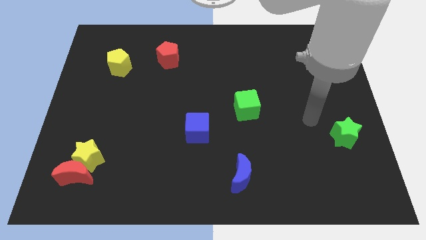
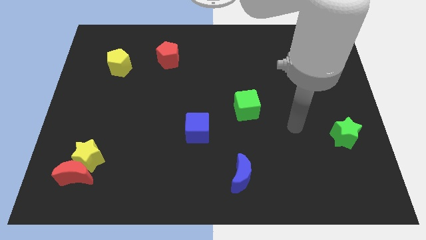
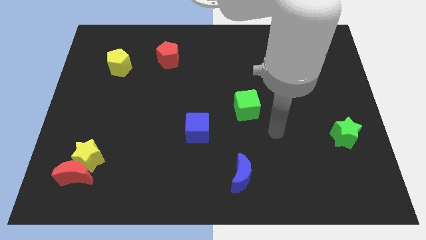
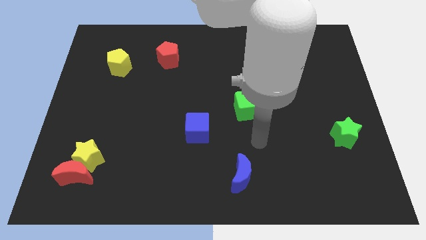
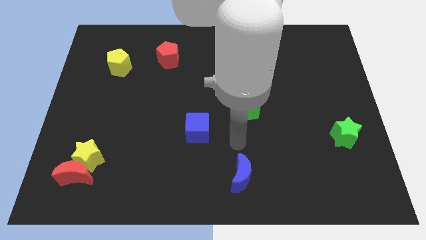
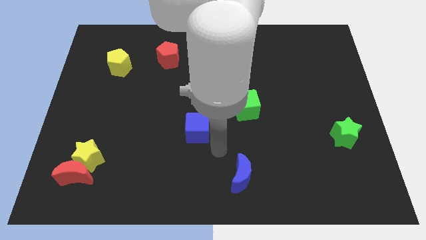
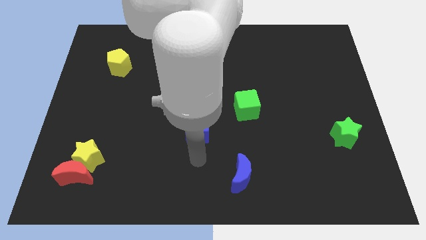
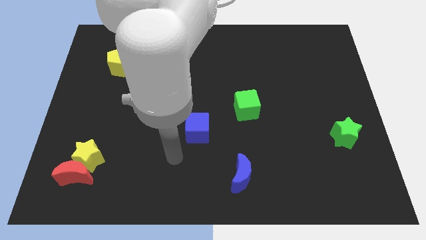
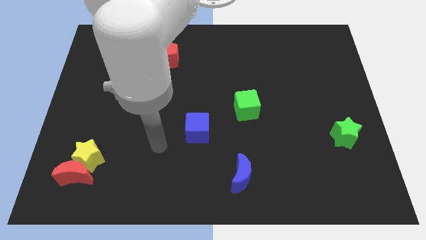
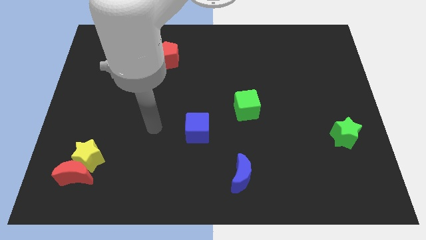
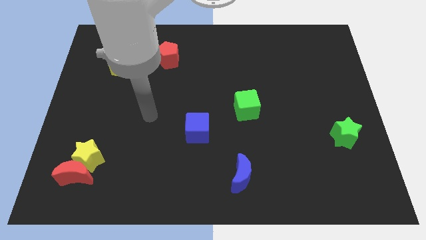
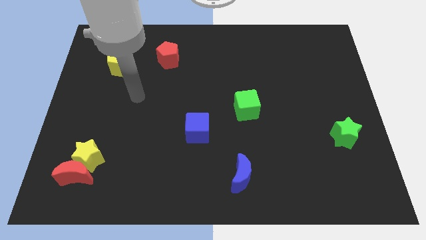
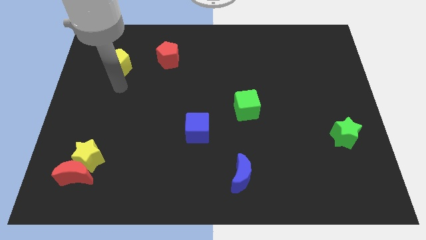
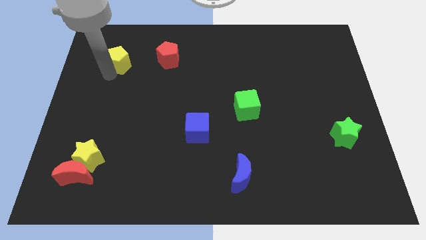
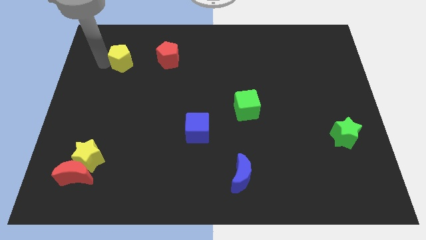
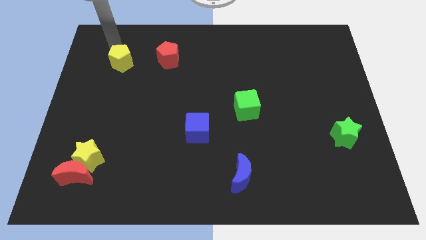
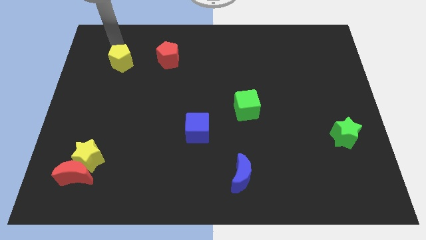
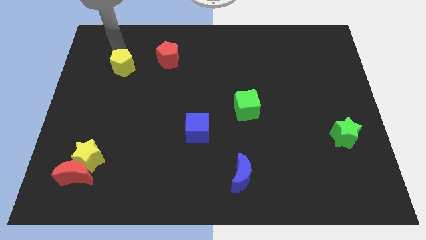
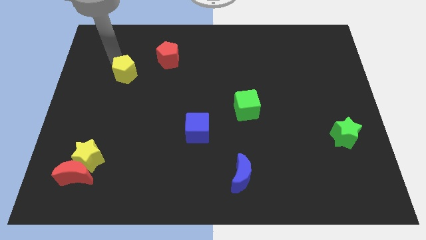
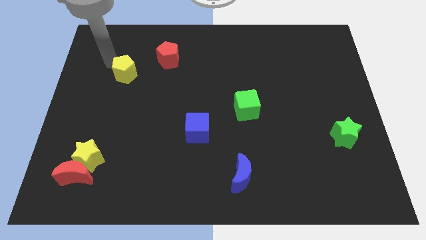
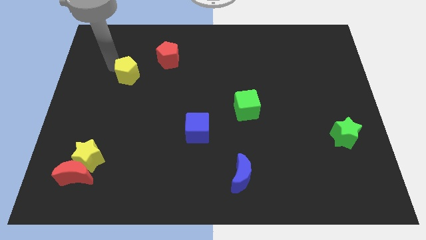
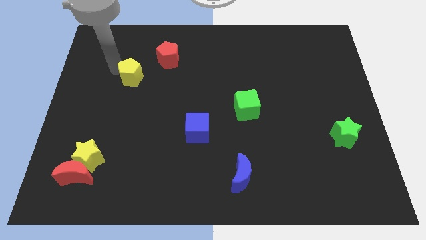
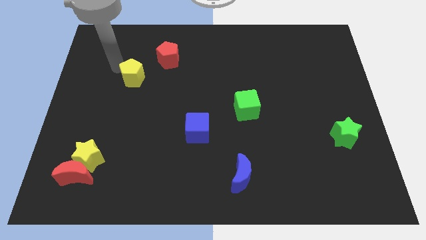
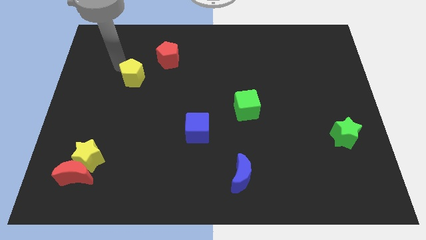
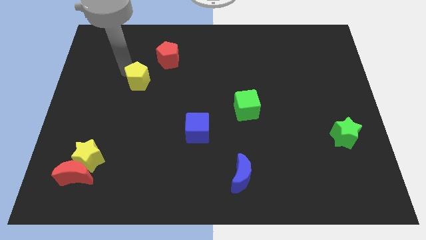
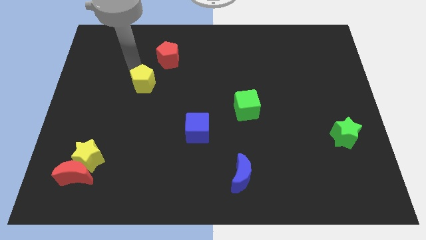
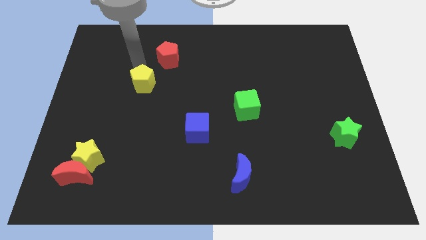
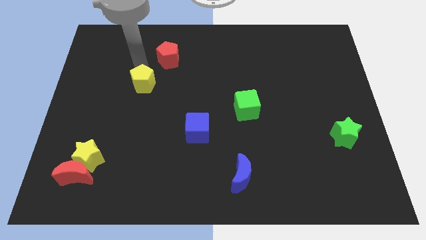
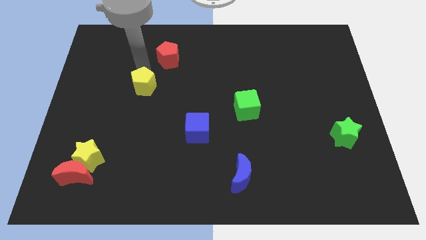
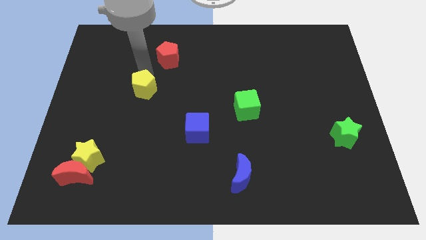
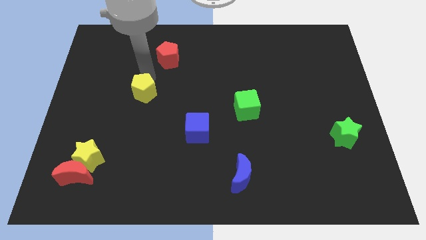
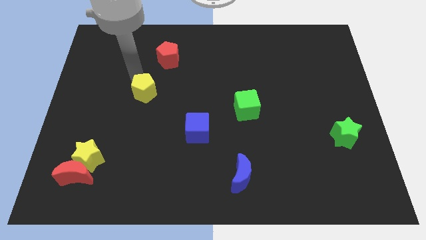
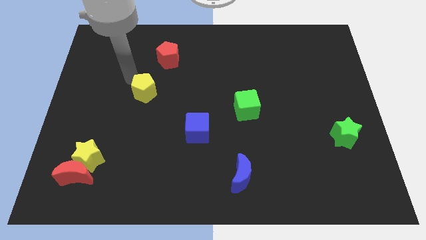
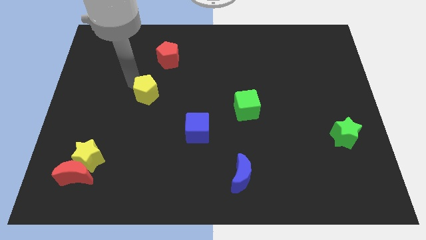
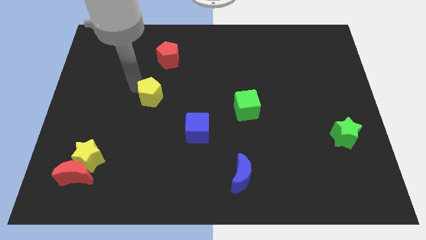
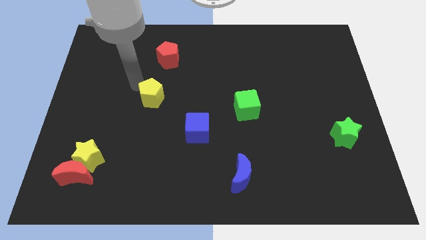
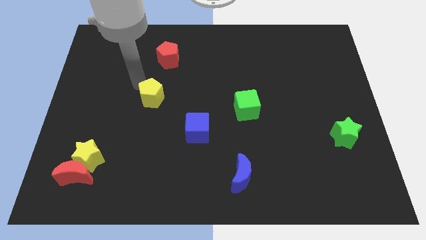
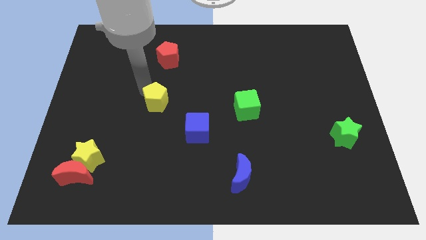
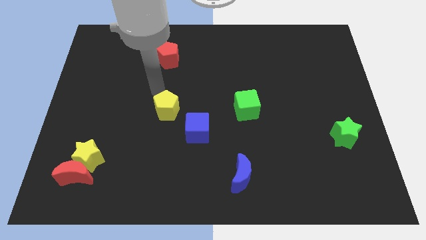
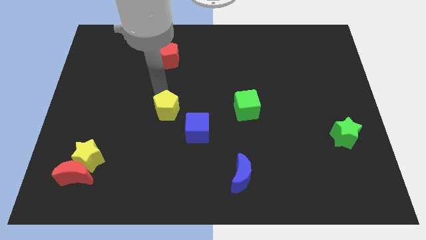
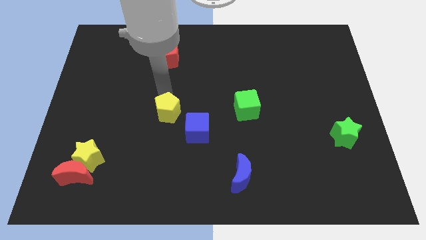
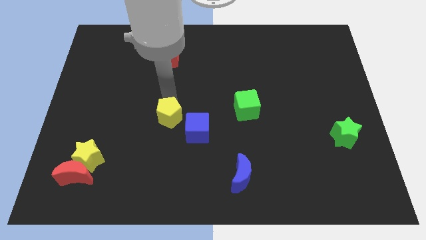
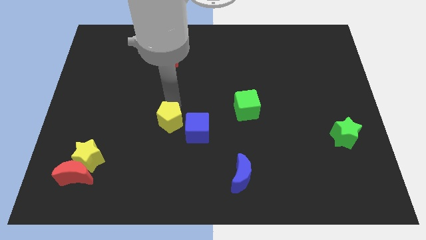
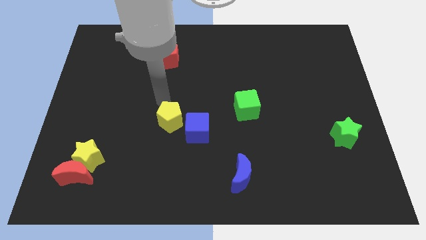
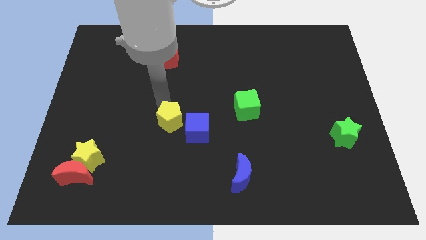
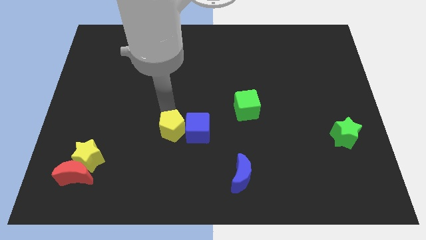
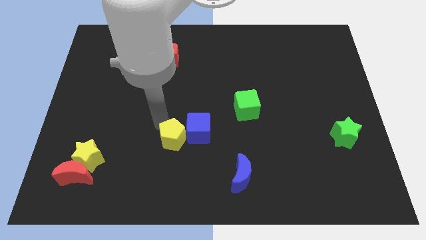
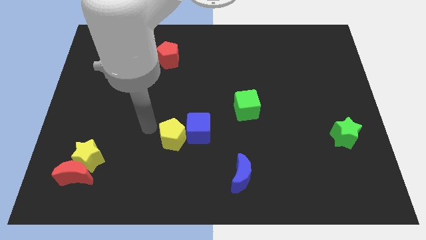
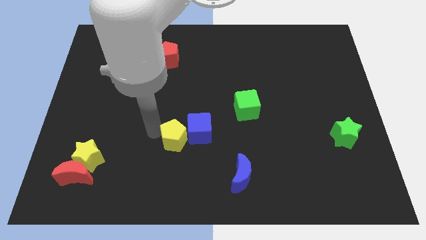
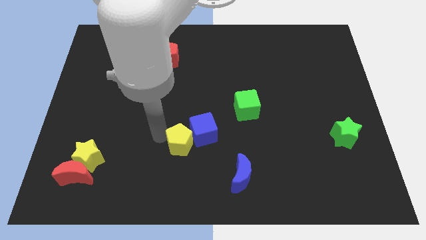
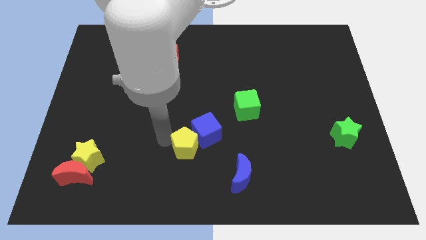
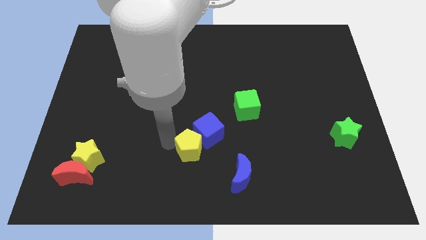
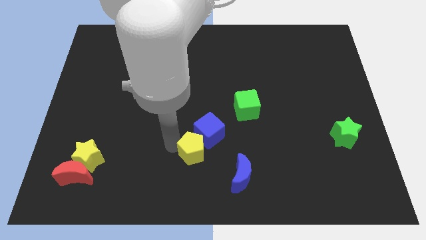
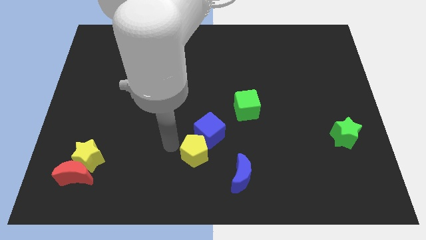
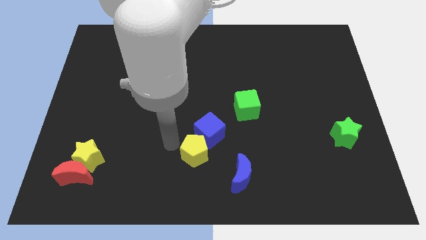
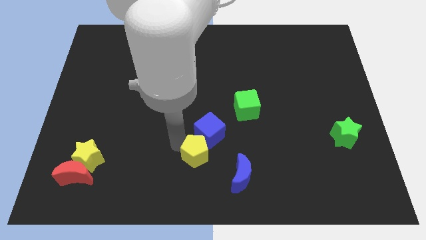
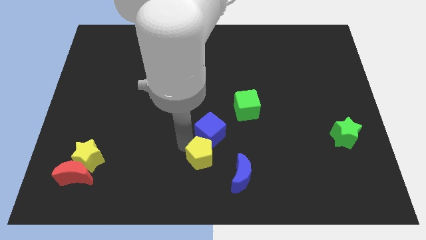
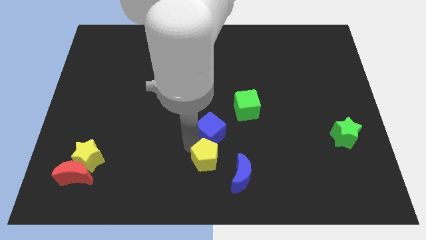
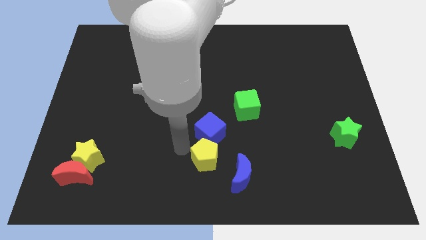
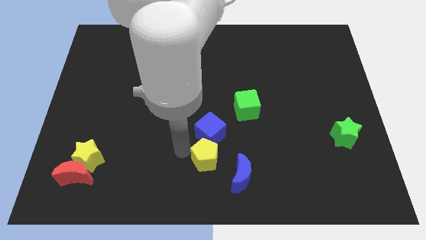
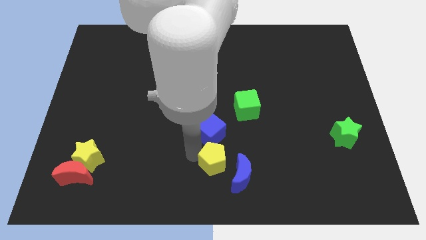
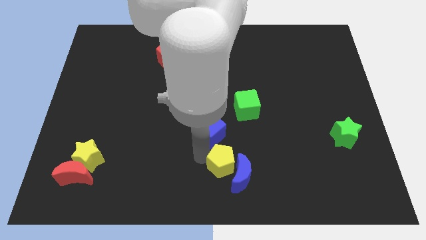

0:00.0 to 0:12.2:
push the yellow pentagon to the blue moon

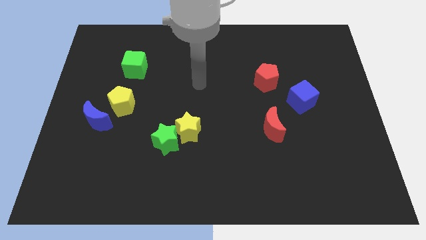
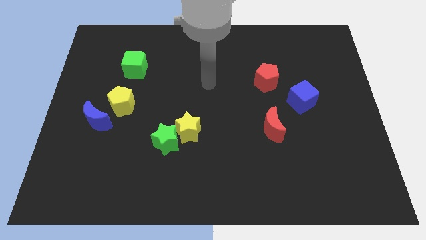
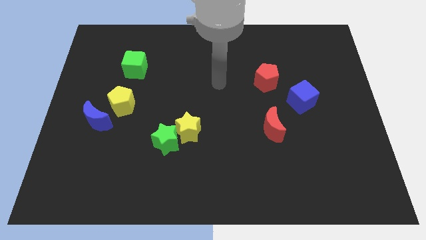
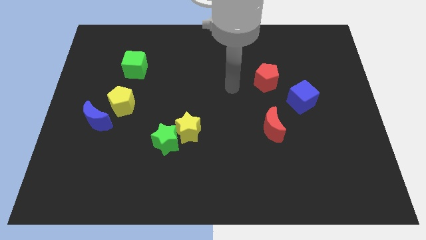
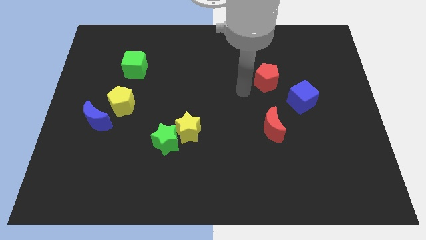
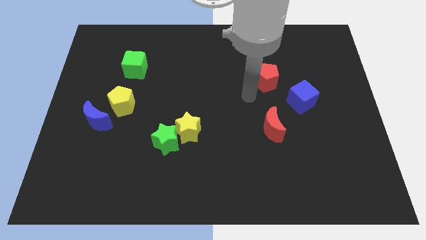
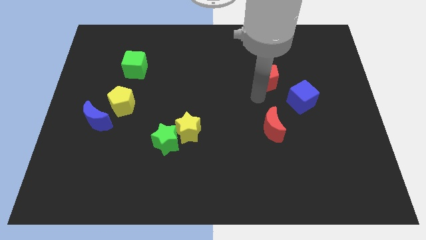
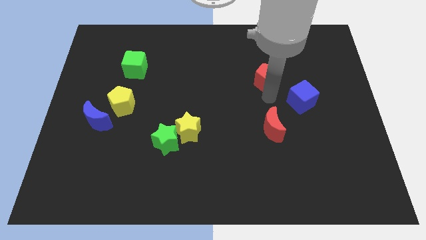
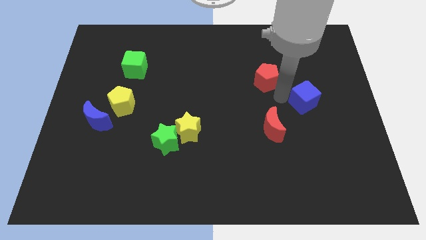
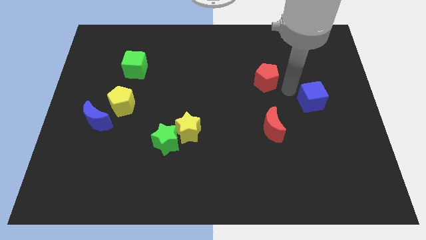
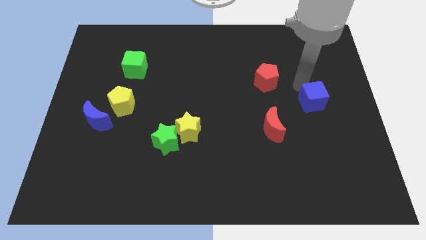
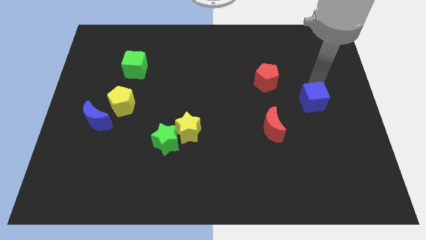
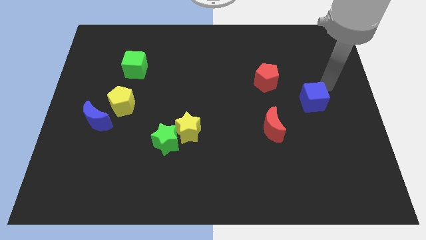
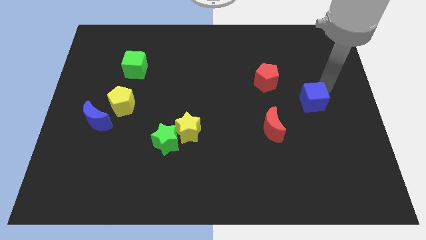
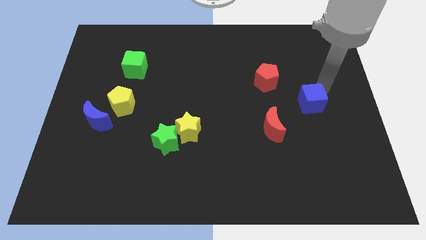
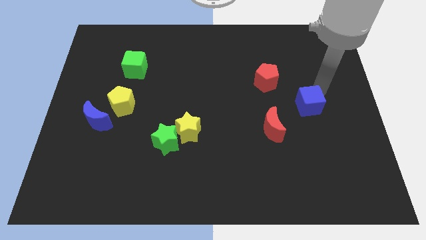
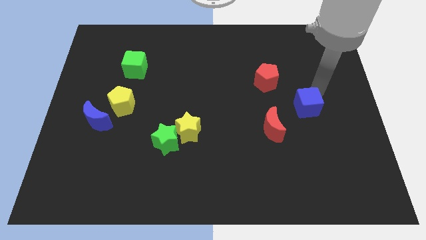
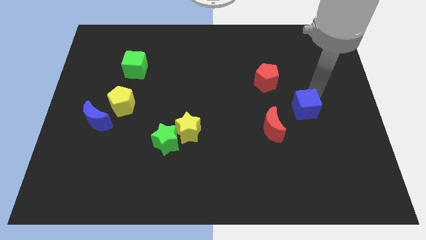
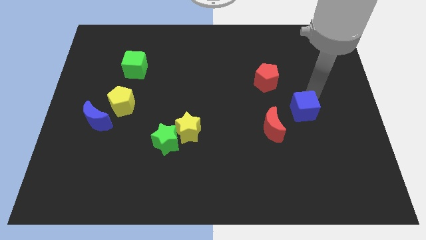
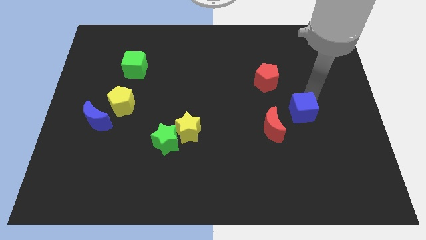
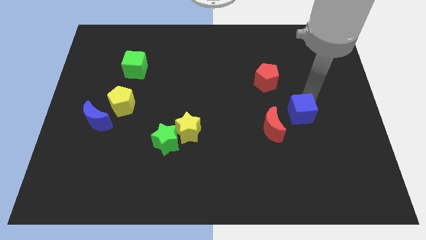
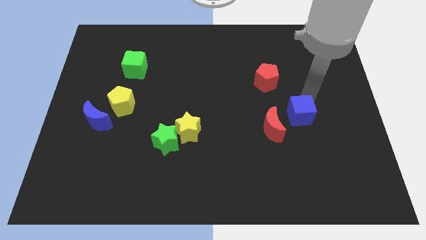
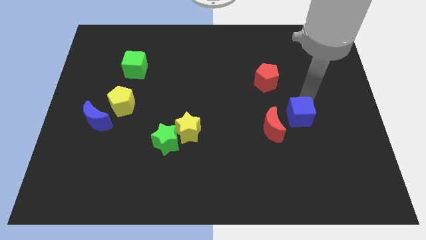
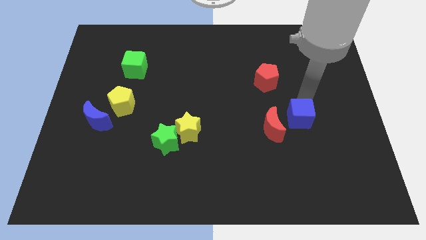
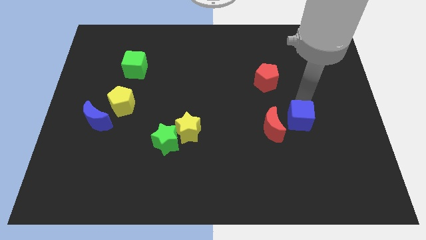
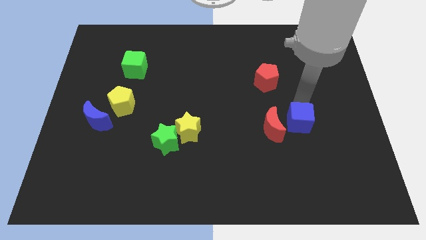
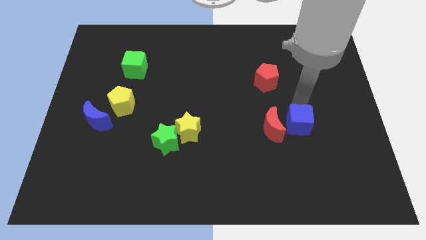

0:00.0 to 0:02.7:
slide the blue cube towards the red moon
